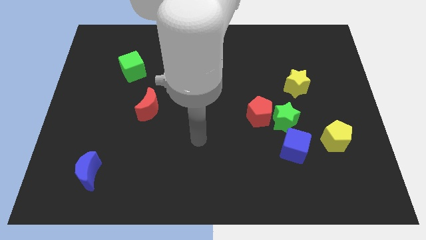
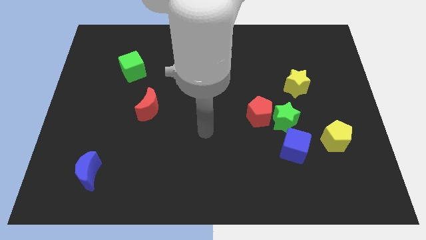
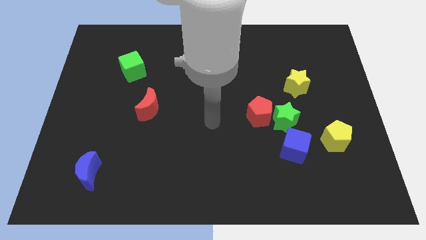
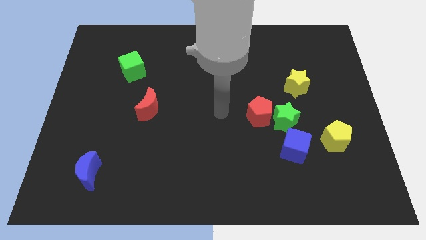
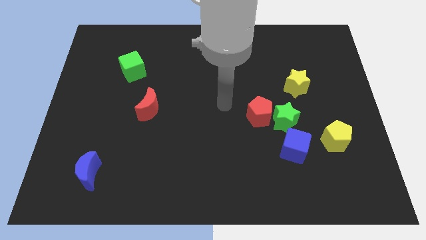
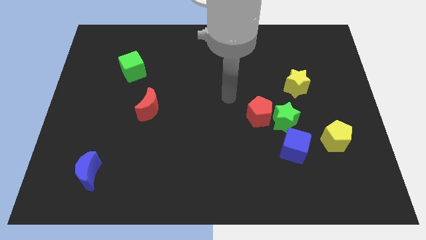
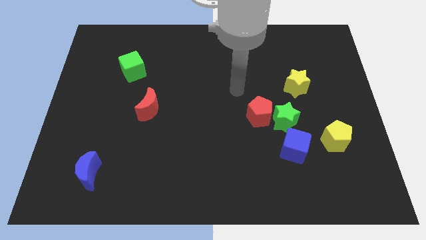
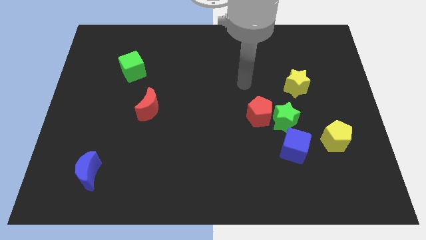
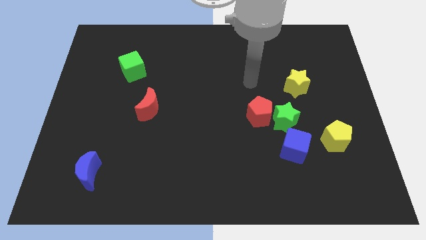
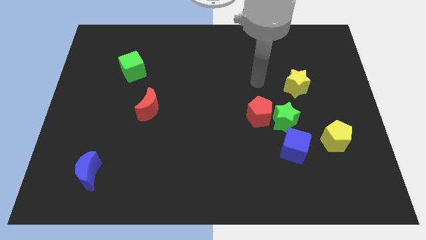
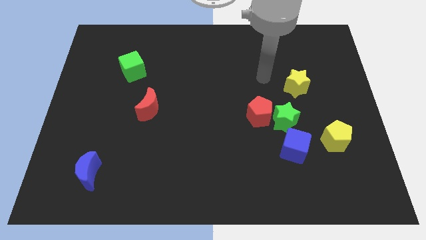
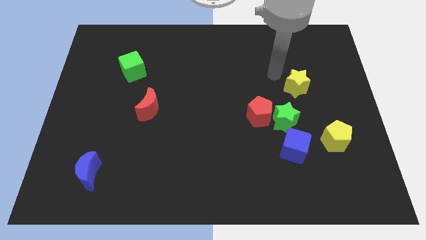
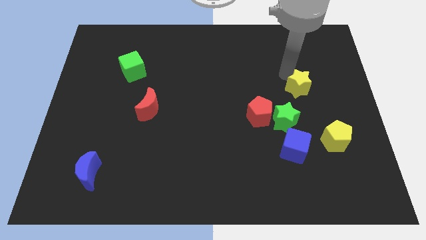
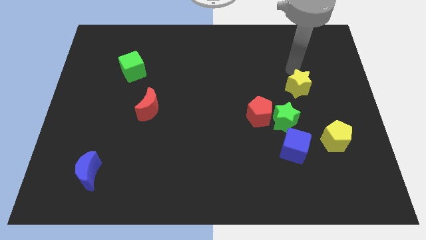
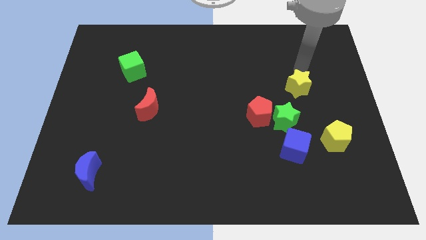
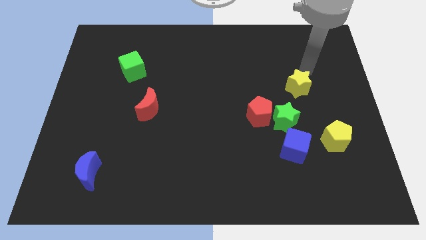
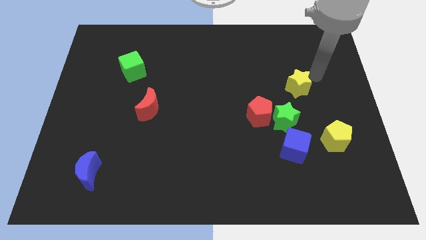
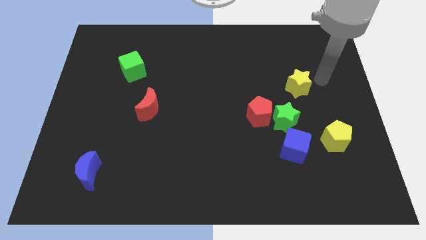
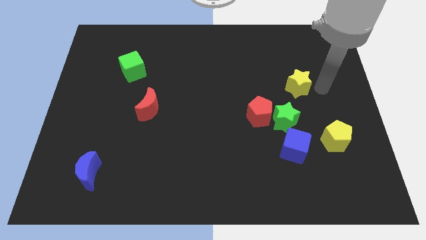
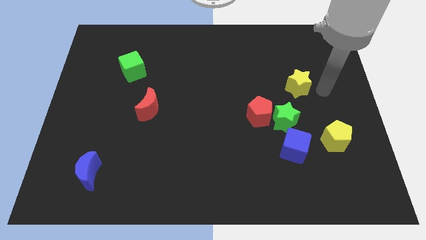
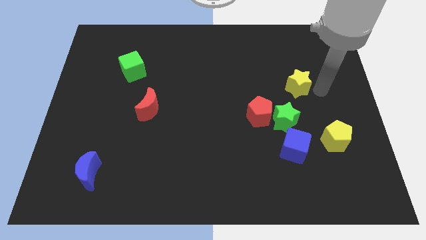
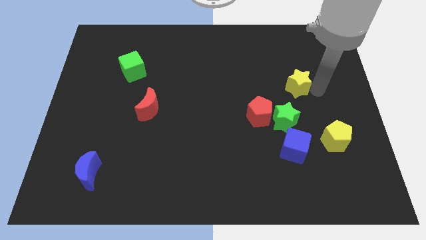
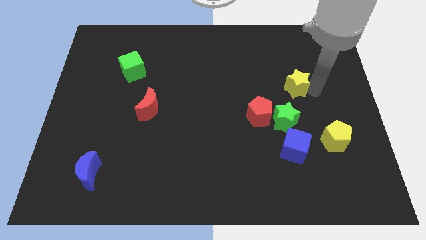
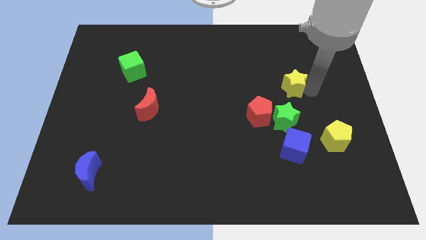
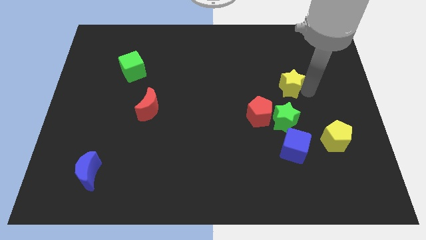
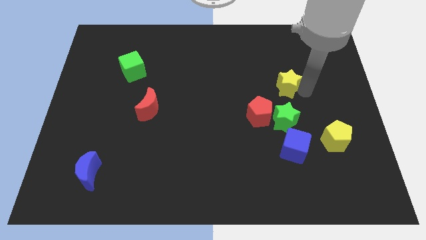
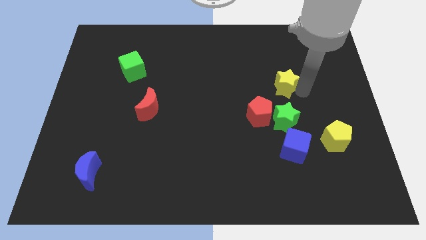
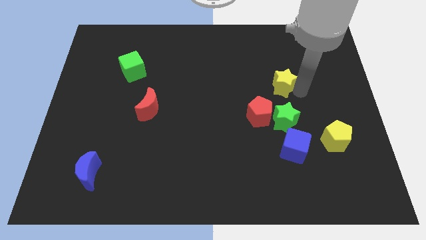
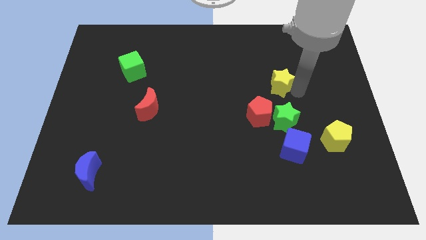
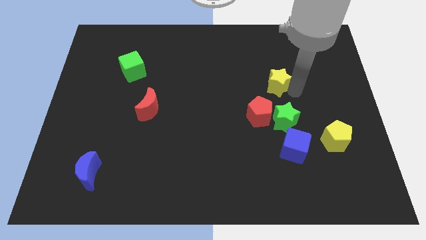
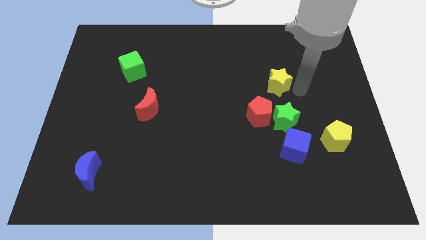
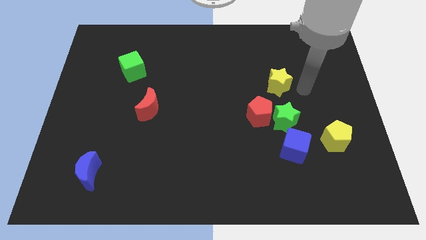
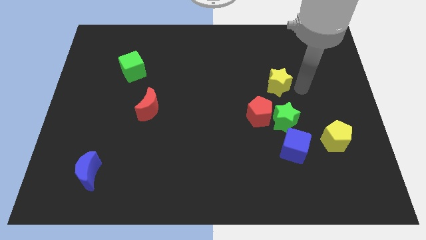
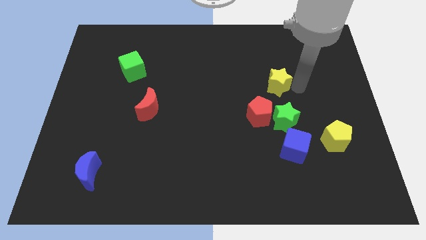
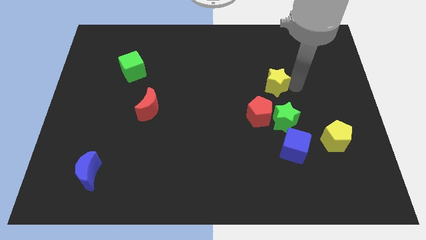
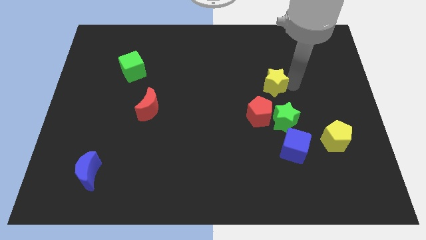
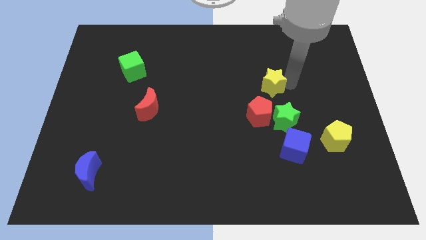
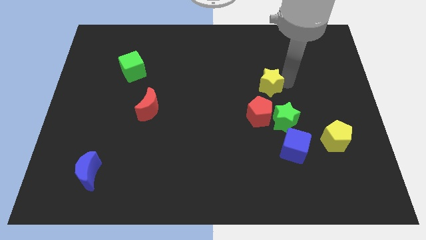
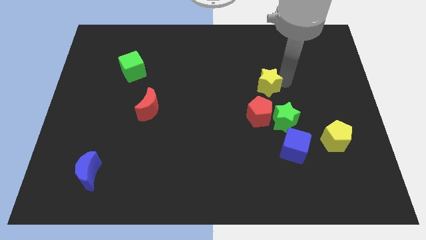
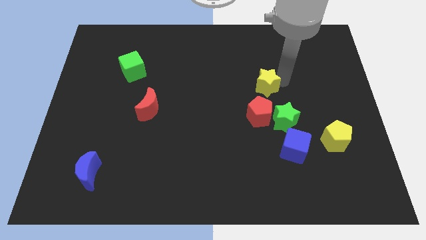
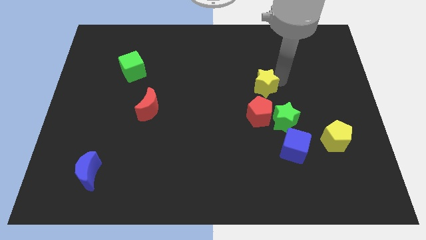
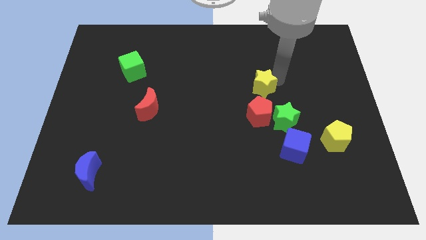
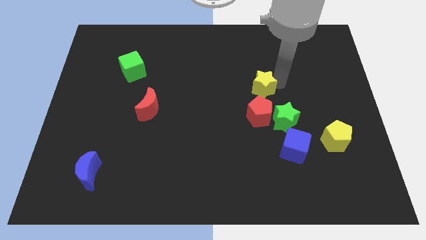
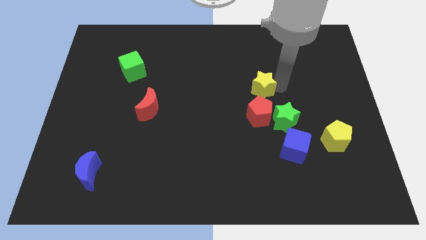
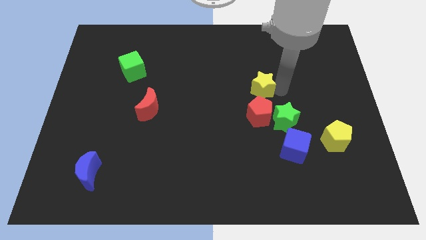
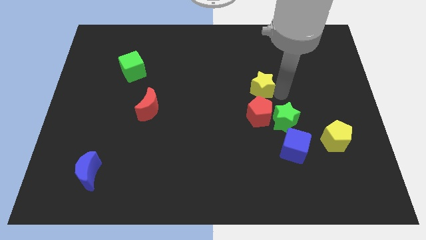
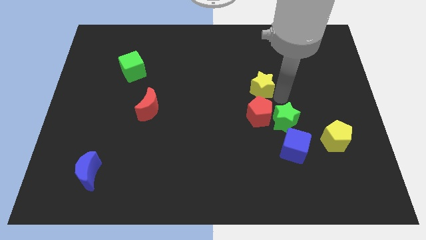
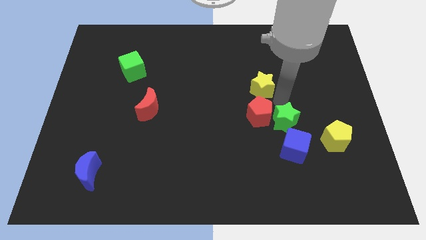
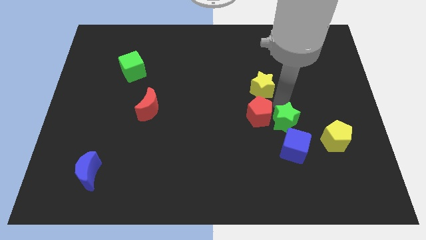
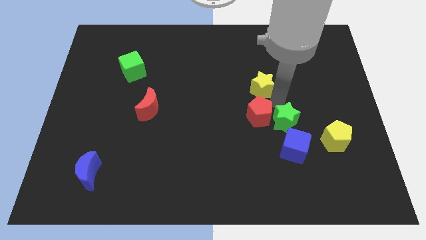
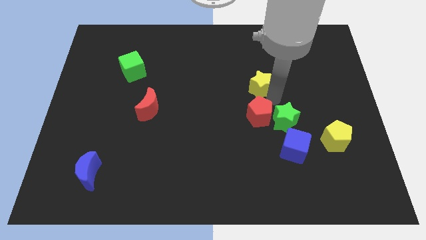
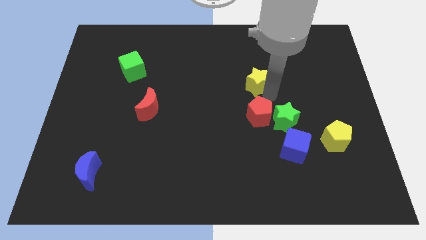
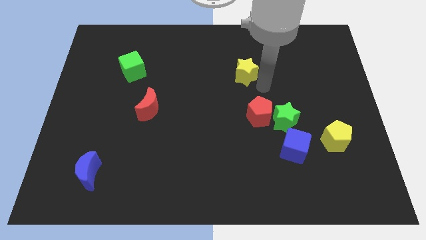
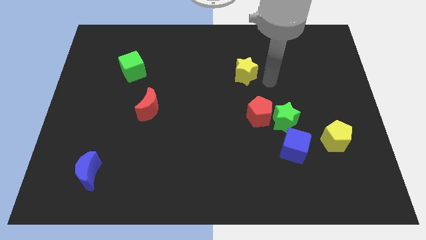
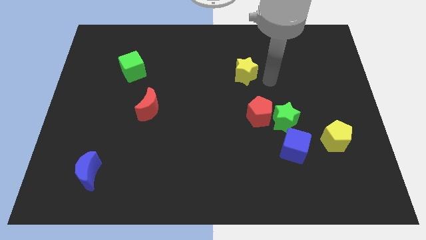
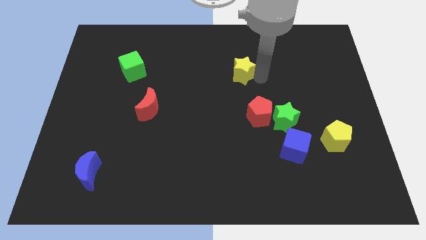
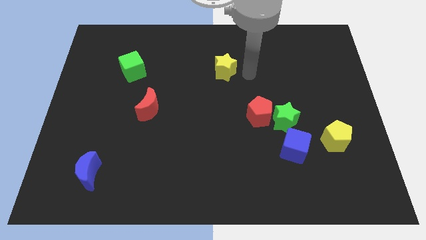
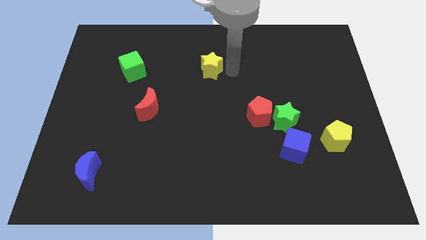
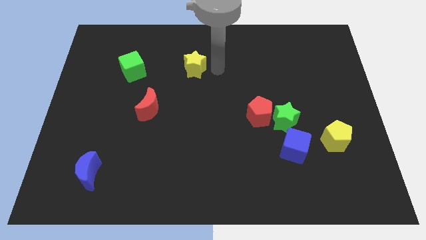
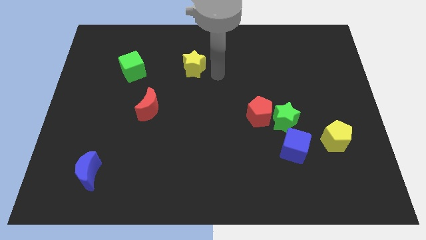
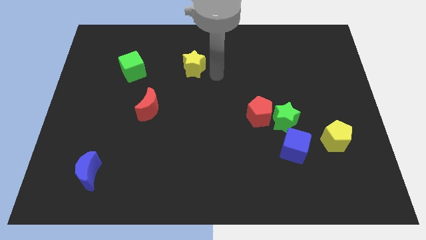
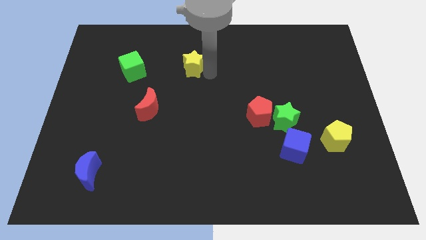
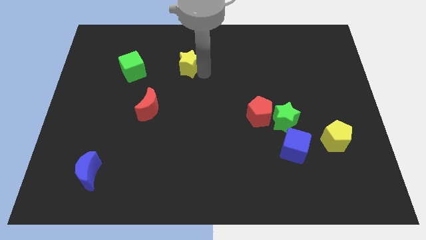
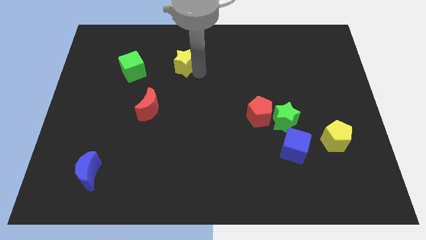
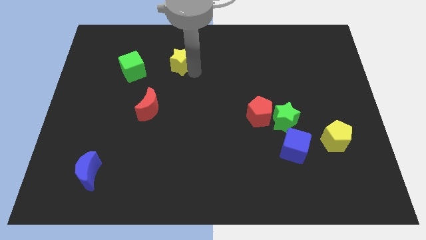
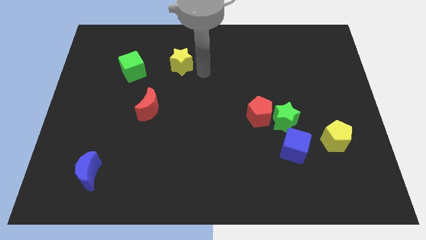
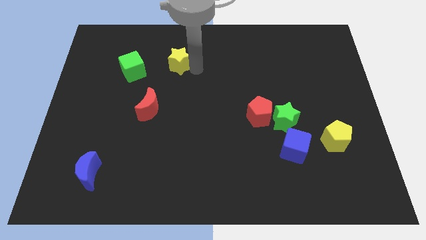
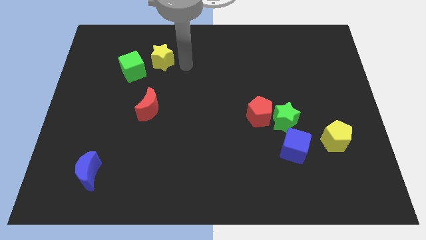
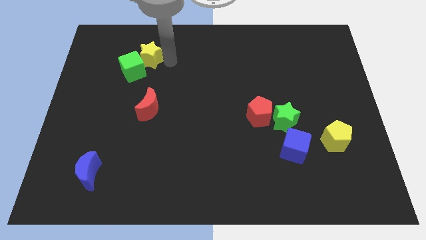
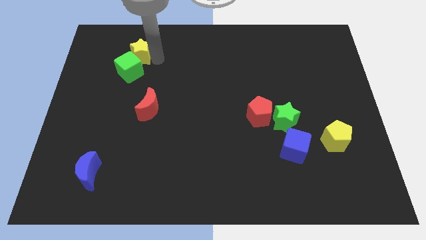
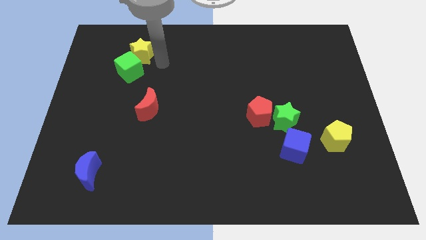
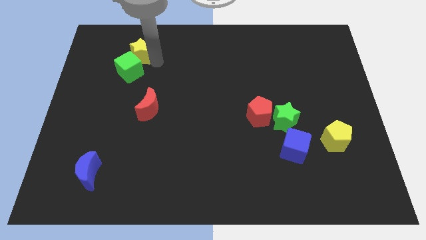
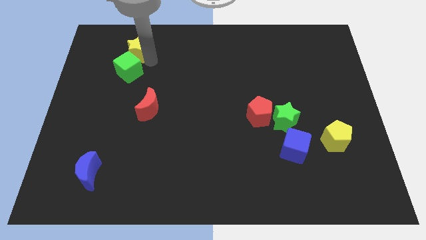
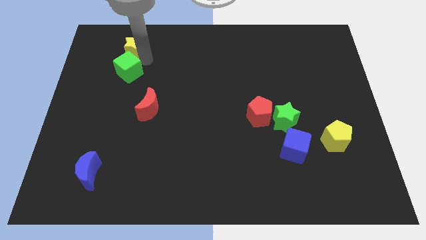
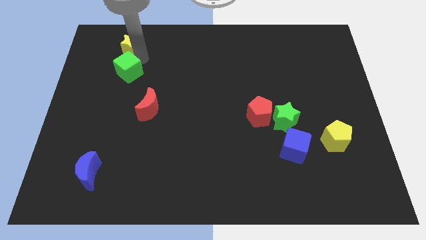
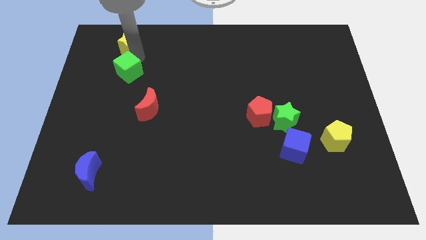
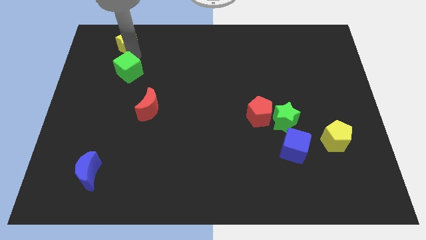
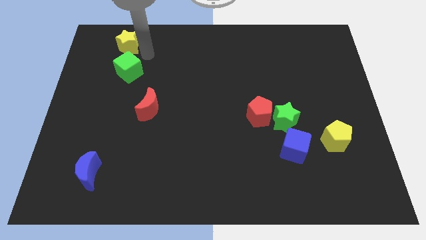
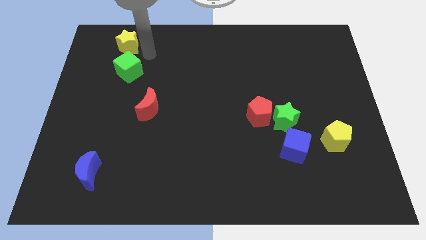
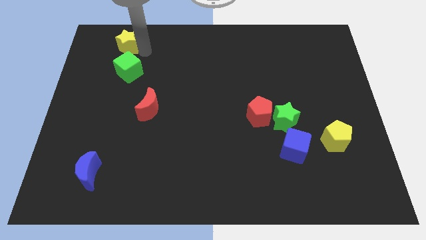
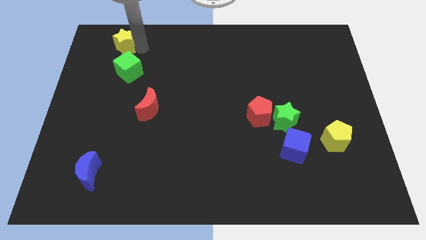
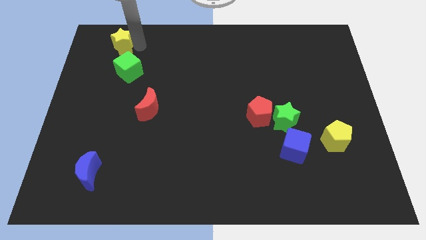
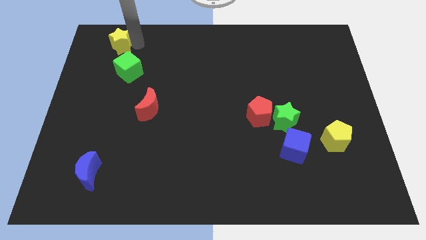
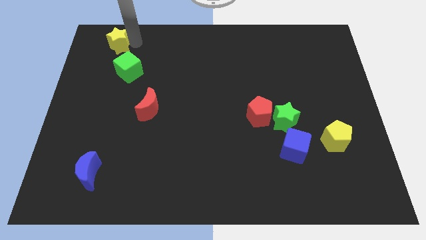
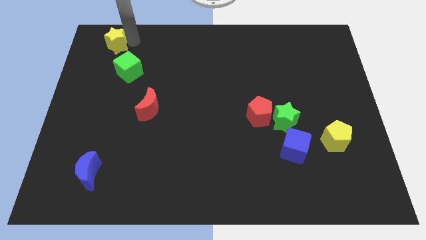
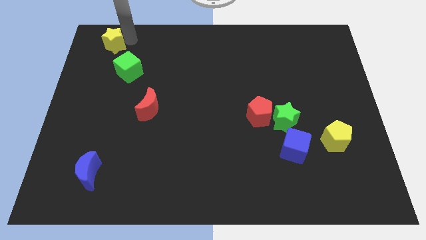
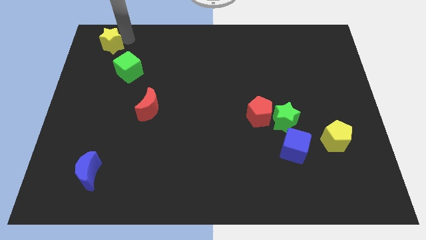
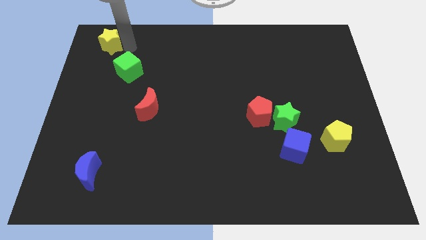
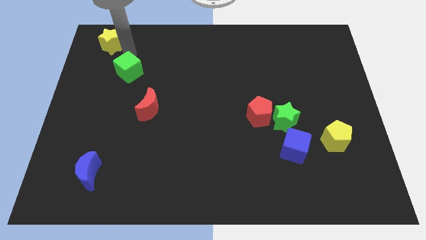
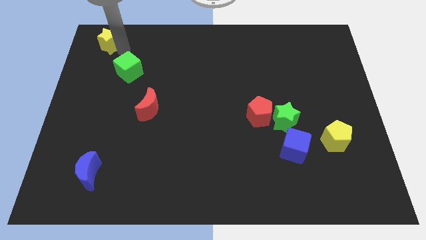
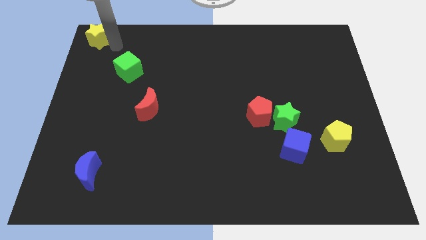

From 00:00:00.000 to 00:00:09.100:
slide the yellow star to the top left
